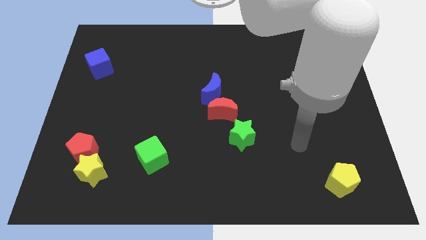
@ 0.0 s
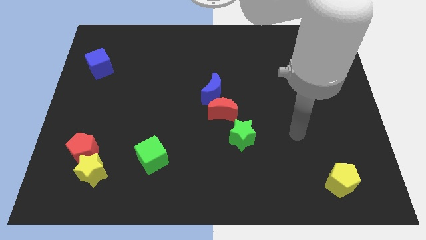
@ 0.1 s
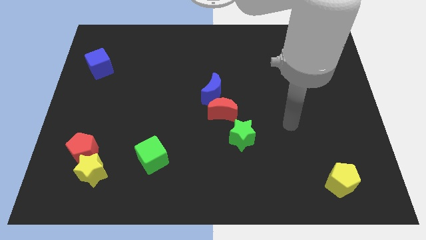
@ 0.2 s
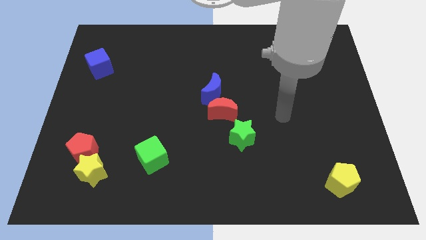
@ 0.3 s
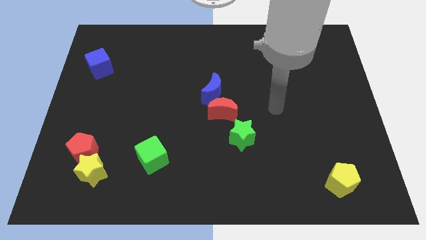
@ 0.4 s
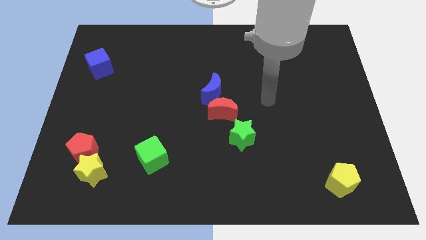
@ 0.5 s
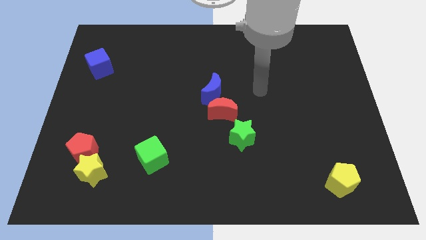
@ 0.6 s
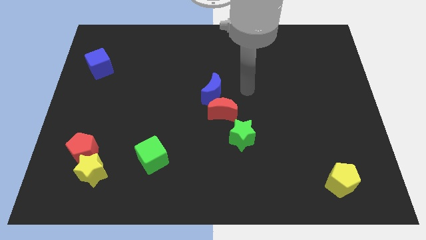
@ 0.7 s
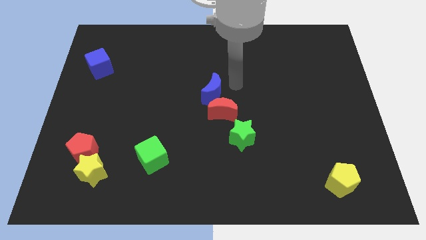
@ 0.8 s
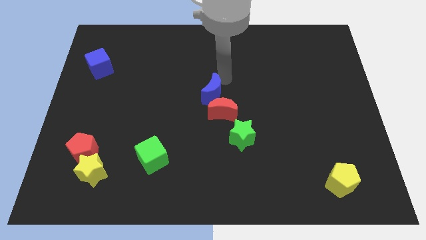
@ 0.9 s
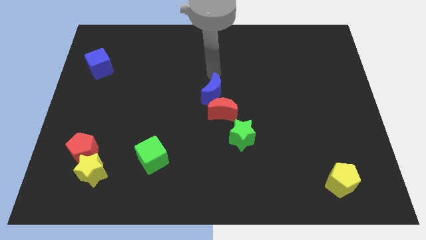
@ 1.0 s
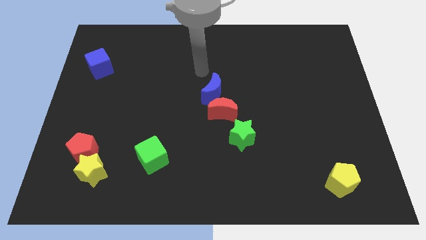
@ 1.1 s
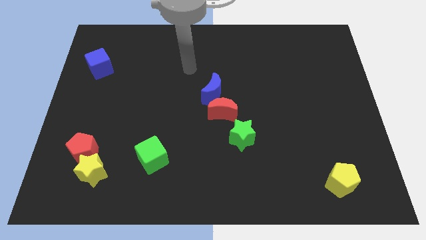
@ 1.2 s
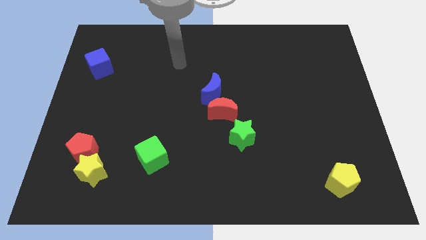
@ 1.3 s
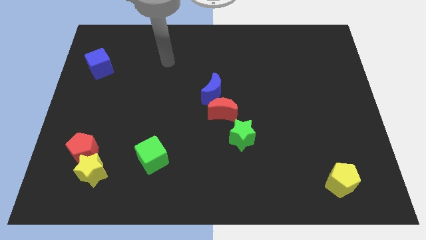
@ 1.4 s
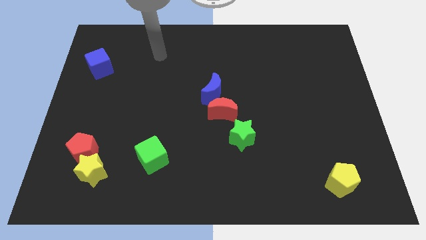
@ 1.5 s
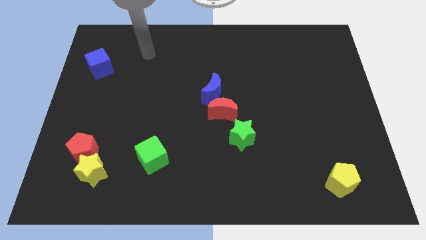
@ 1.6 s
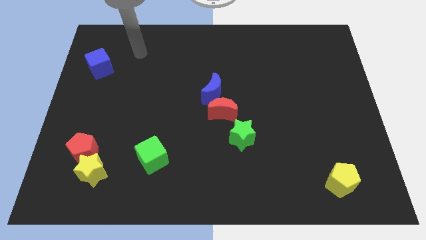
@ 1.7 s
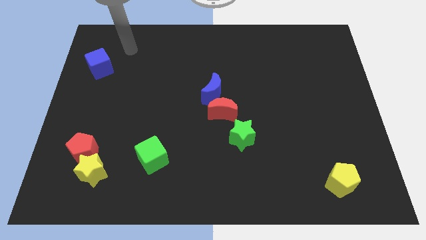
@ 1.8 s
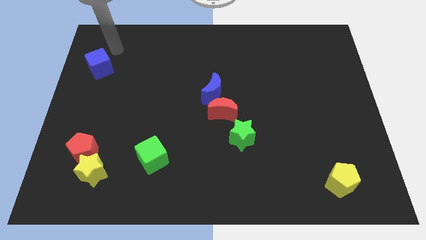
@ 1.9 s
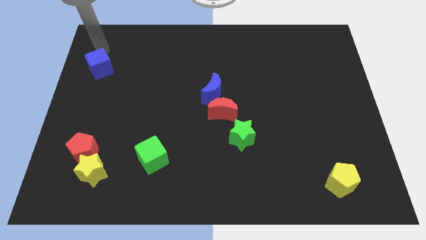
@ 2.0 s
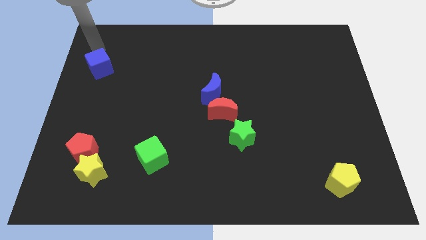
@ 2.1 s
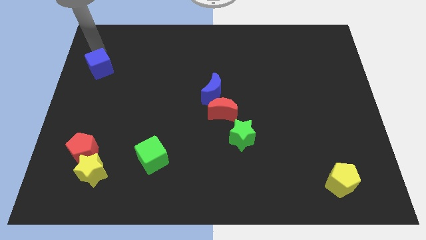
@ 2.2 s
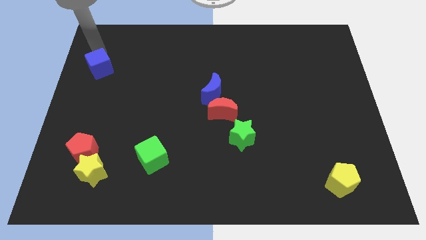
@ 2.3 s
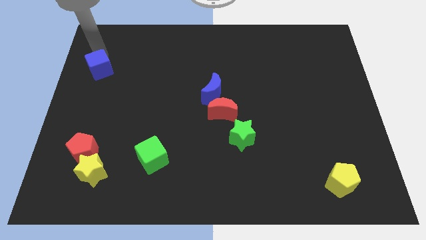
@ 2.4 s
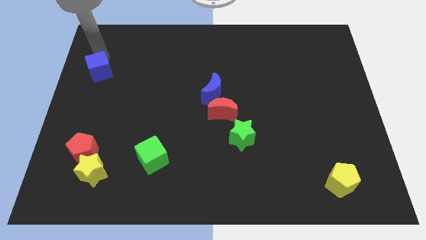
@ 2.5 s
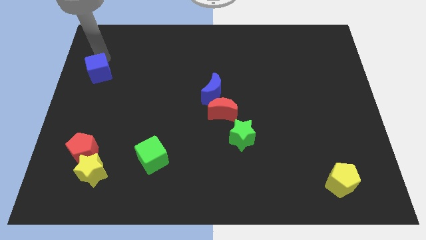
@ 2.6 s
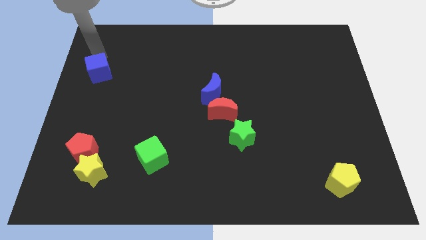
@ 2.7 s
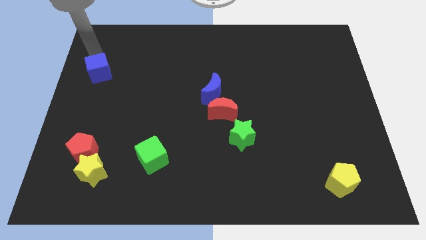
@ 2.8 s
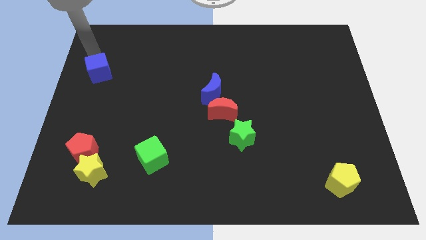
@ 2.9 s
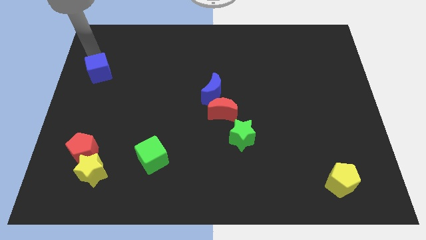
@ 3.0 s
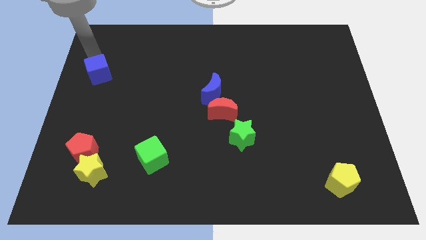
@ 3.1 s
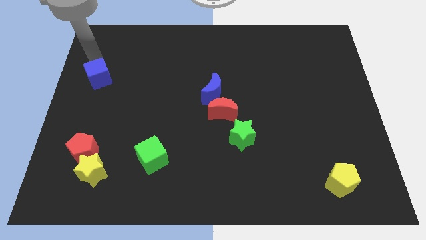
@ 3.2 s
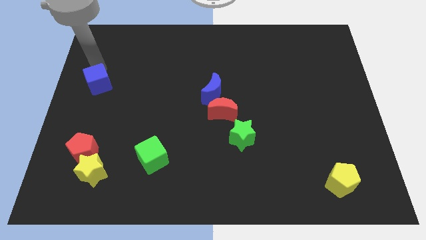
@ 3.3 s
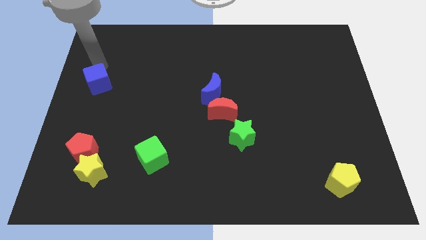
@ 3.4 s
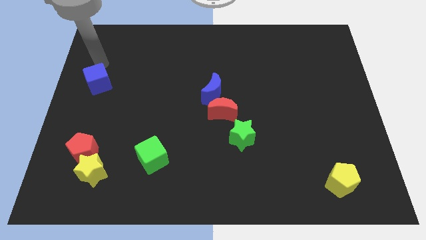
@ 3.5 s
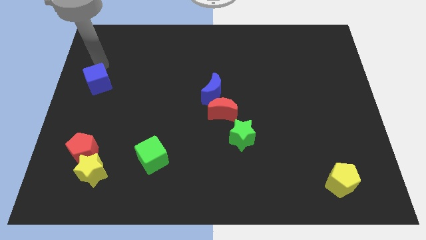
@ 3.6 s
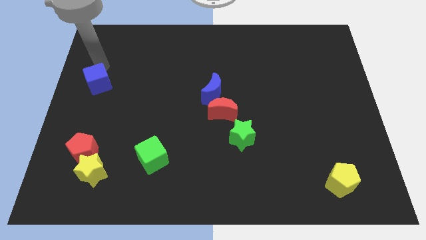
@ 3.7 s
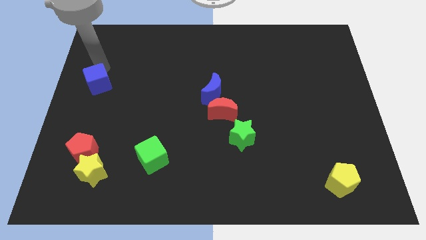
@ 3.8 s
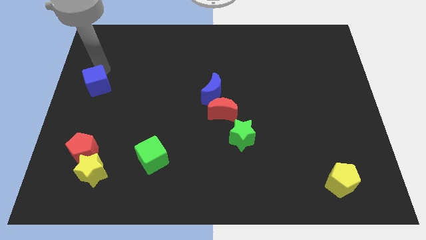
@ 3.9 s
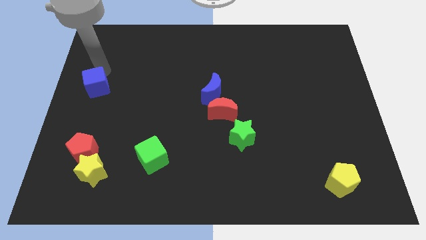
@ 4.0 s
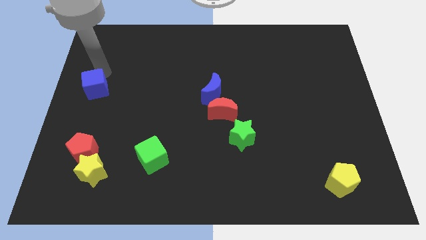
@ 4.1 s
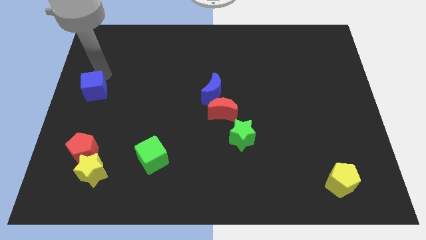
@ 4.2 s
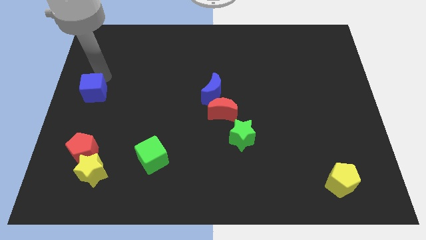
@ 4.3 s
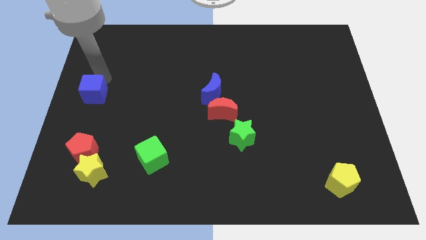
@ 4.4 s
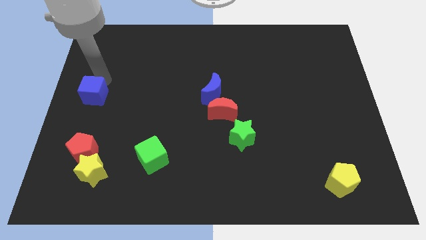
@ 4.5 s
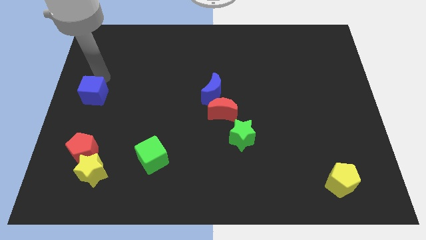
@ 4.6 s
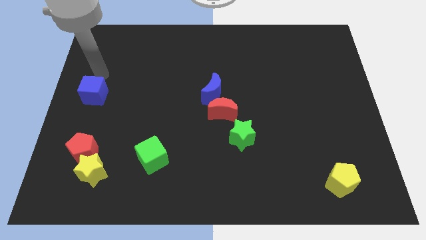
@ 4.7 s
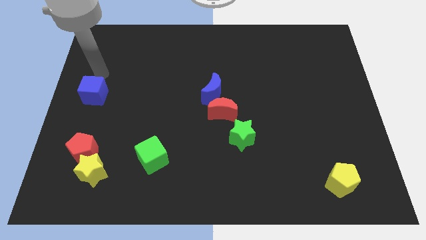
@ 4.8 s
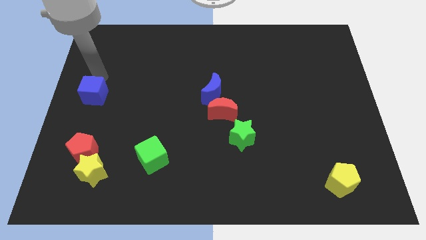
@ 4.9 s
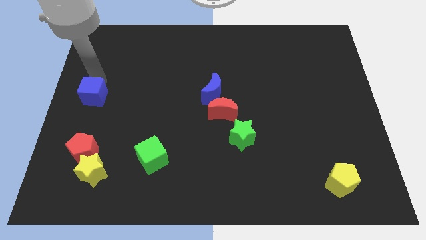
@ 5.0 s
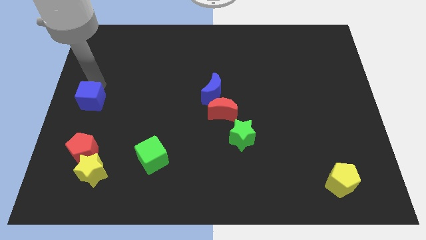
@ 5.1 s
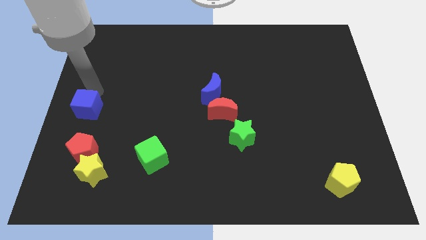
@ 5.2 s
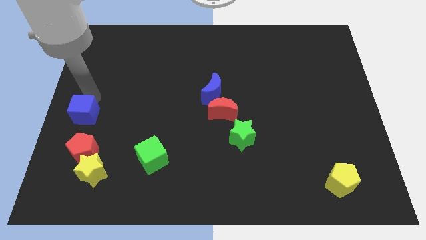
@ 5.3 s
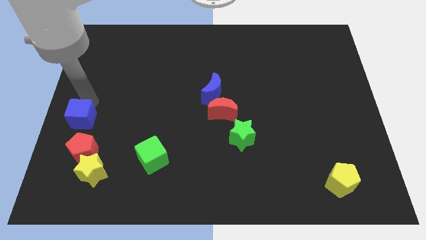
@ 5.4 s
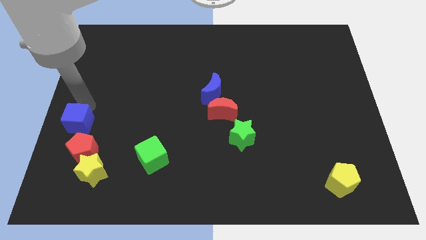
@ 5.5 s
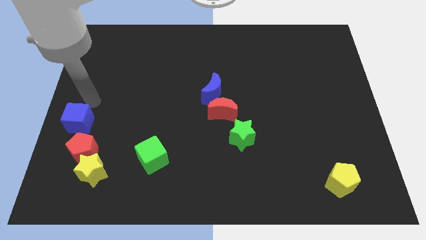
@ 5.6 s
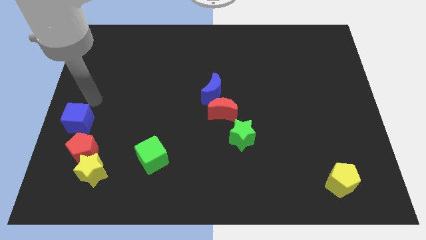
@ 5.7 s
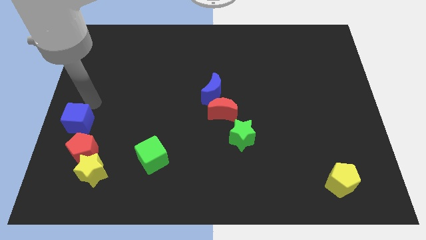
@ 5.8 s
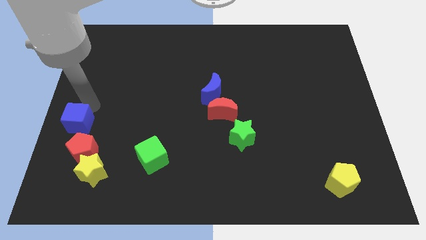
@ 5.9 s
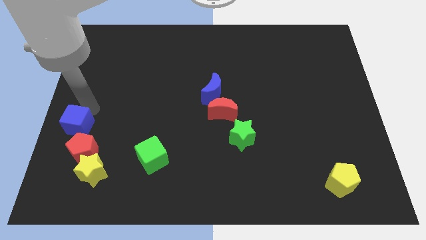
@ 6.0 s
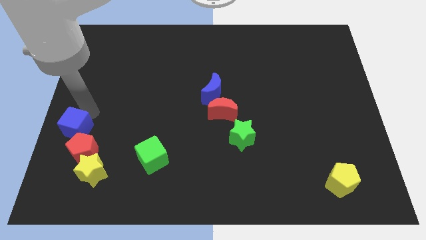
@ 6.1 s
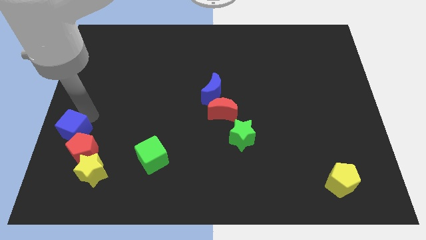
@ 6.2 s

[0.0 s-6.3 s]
push the blue cube downwards

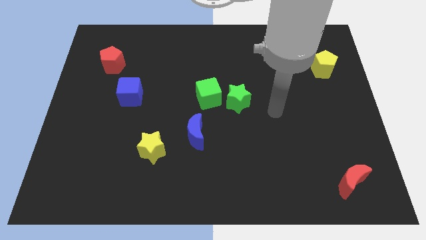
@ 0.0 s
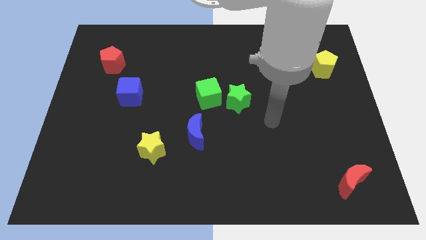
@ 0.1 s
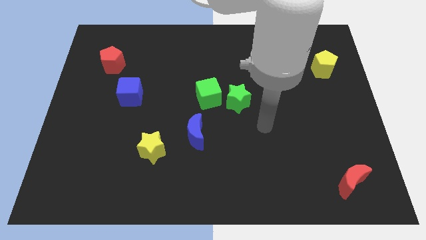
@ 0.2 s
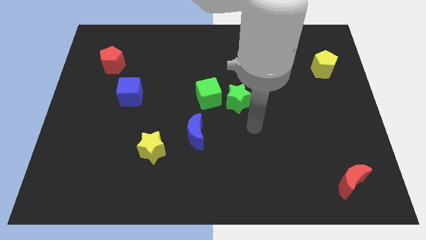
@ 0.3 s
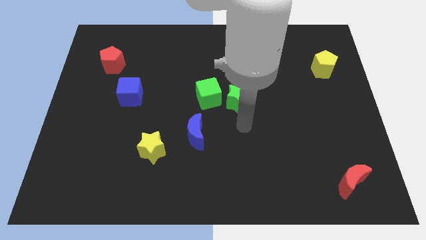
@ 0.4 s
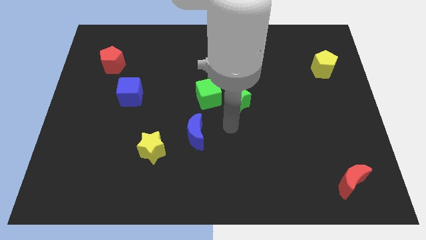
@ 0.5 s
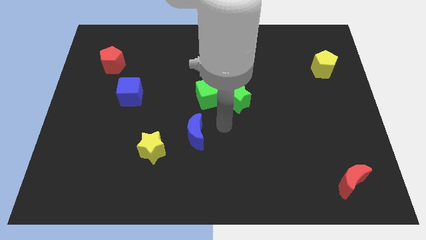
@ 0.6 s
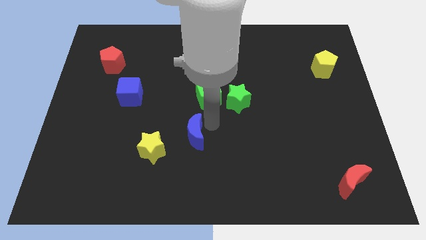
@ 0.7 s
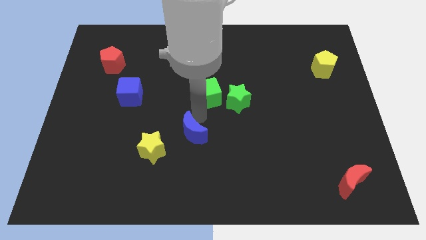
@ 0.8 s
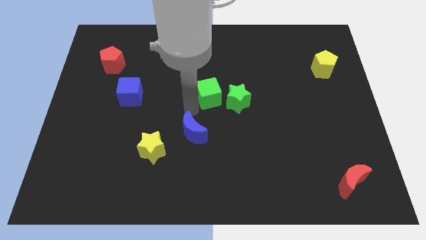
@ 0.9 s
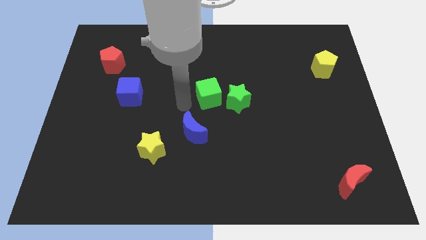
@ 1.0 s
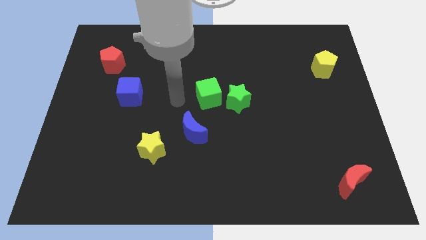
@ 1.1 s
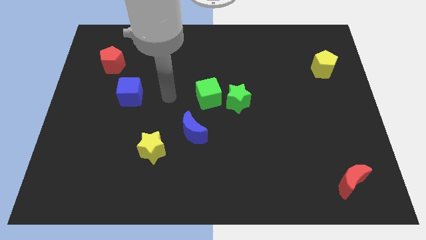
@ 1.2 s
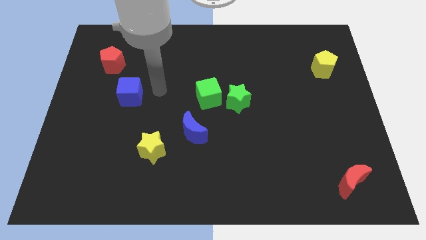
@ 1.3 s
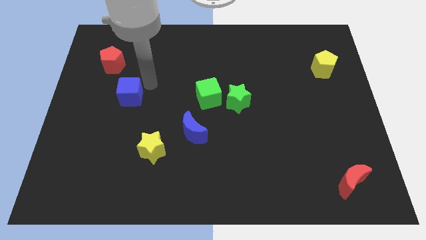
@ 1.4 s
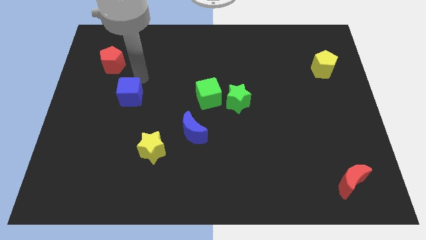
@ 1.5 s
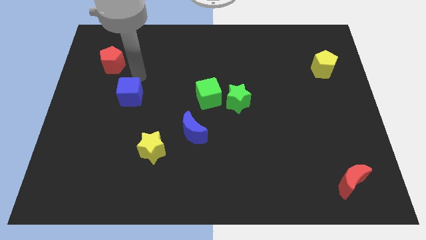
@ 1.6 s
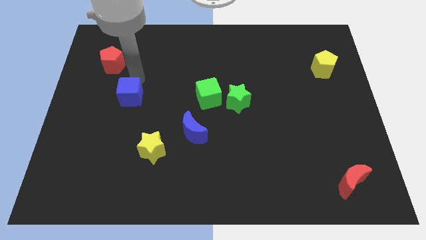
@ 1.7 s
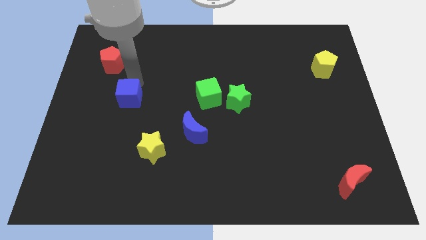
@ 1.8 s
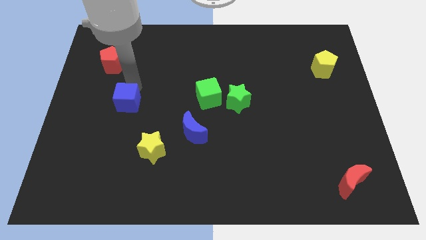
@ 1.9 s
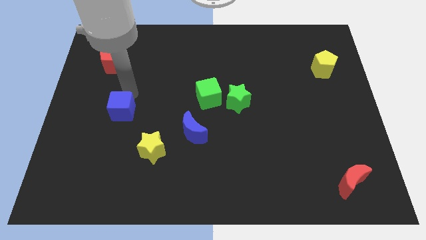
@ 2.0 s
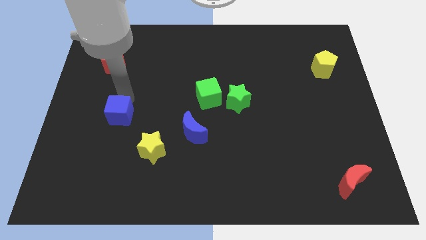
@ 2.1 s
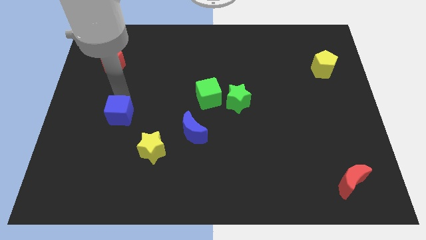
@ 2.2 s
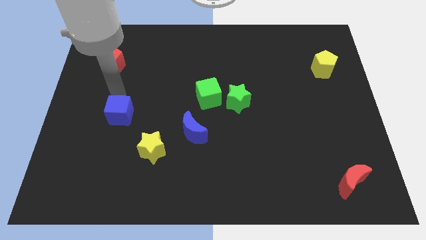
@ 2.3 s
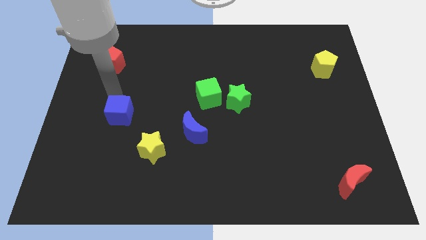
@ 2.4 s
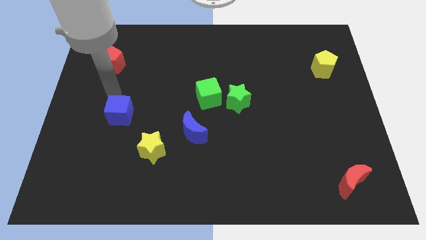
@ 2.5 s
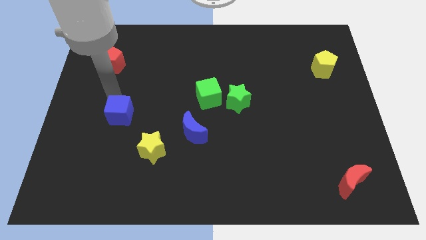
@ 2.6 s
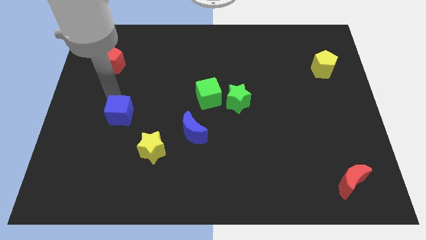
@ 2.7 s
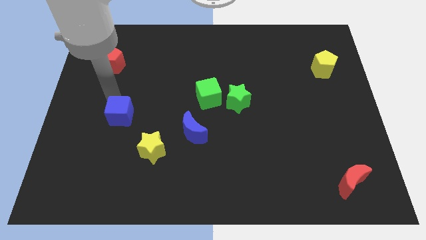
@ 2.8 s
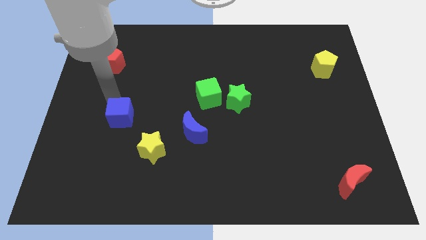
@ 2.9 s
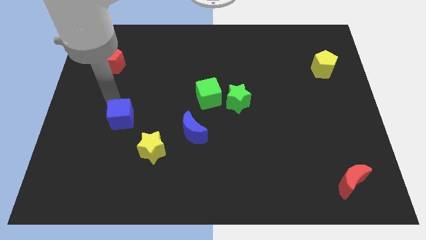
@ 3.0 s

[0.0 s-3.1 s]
push the blue cube slightly down
